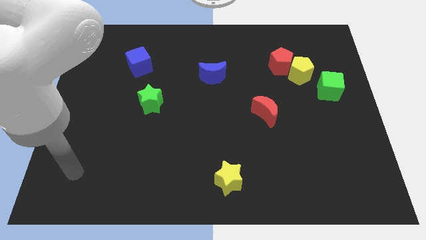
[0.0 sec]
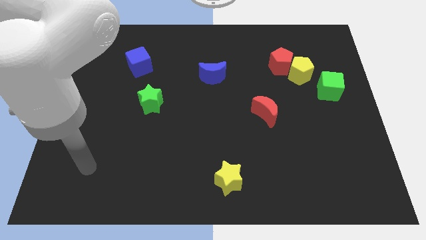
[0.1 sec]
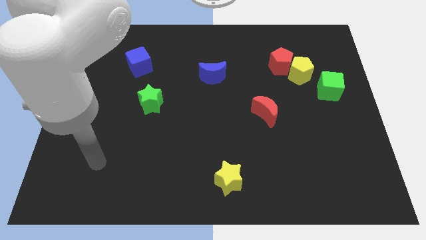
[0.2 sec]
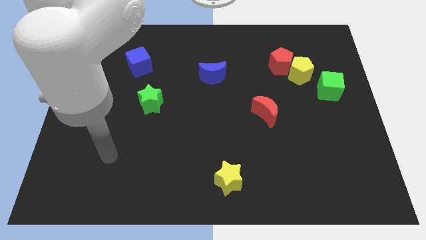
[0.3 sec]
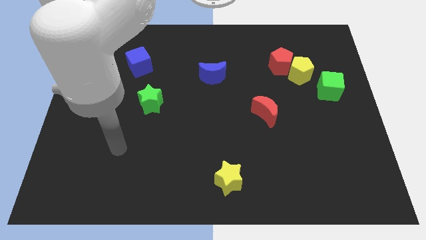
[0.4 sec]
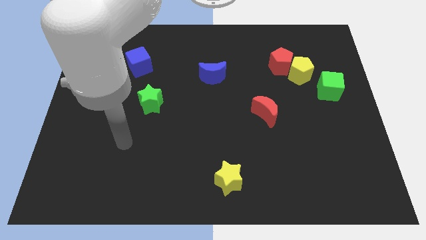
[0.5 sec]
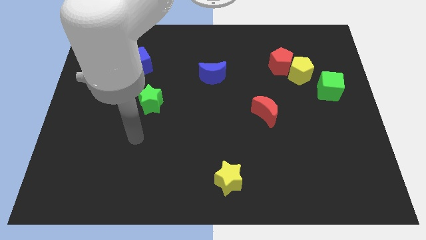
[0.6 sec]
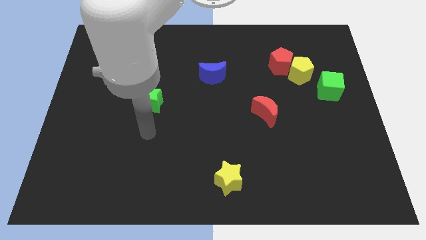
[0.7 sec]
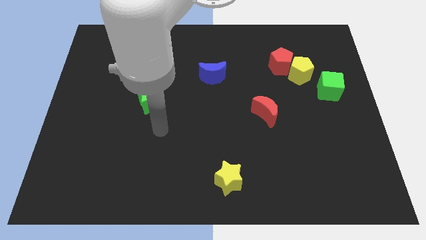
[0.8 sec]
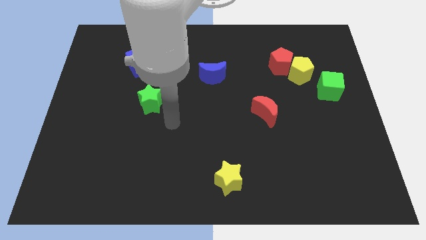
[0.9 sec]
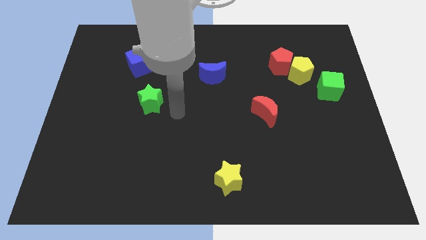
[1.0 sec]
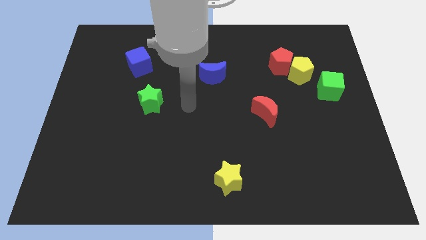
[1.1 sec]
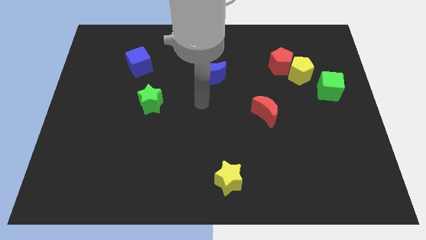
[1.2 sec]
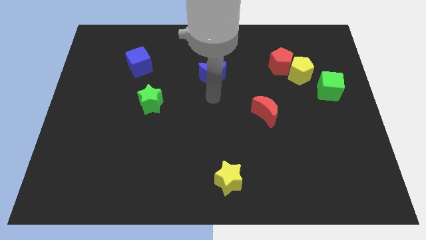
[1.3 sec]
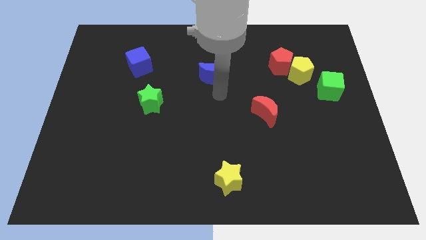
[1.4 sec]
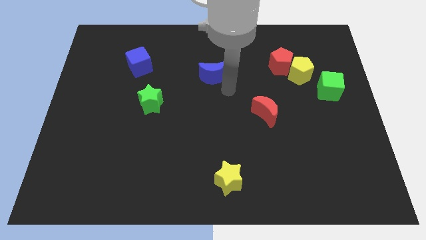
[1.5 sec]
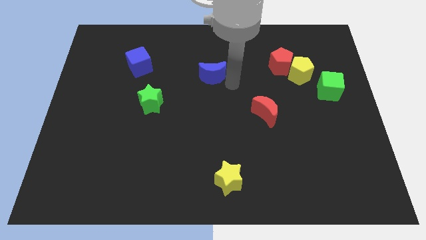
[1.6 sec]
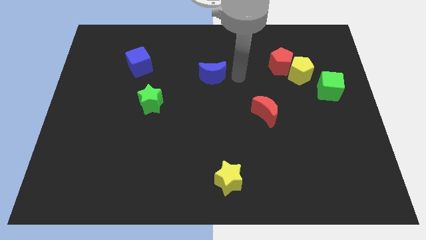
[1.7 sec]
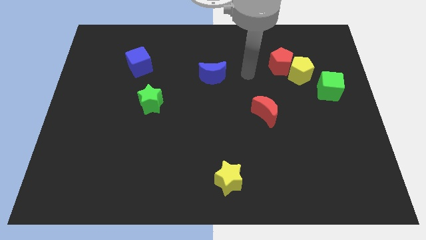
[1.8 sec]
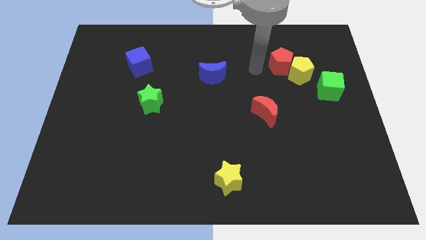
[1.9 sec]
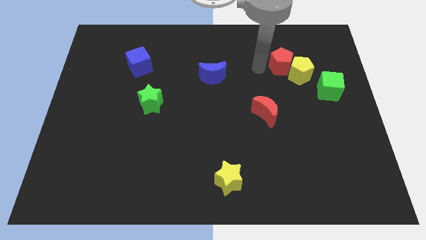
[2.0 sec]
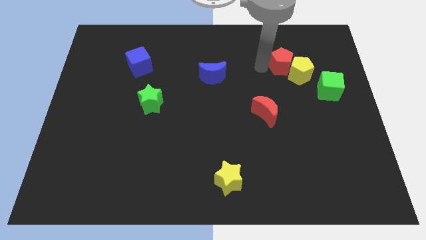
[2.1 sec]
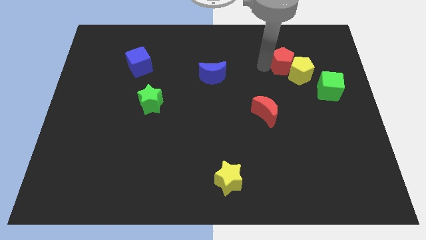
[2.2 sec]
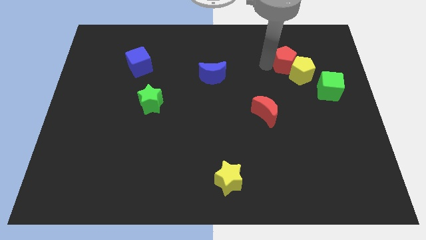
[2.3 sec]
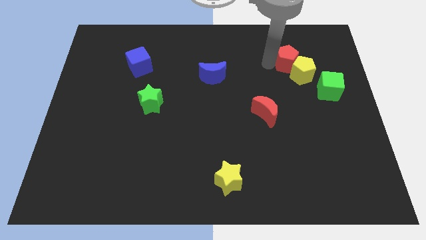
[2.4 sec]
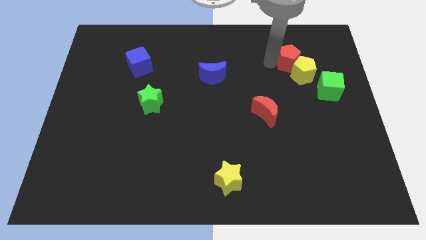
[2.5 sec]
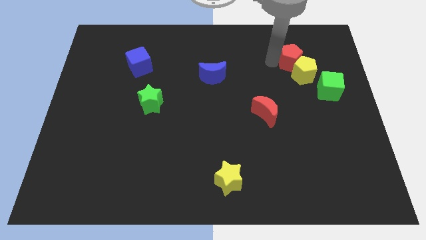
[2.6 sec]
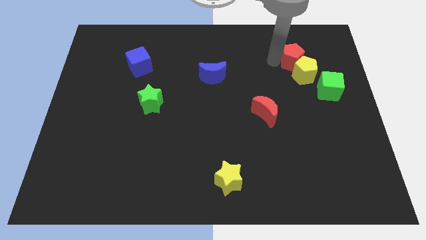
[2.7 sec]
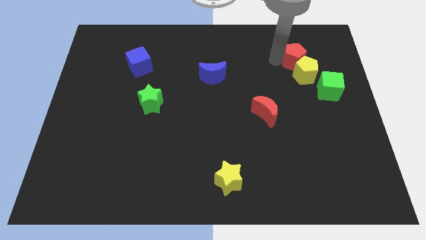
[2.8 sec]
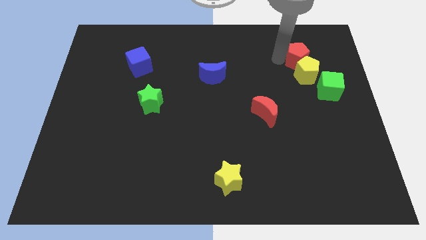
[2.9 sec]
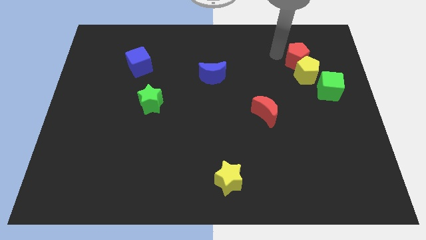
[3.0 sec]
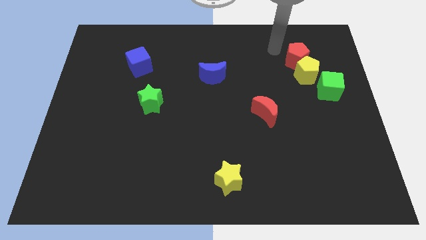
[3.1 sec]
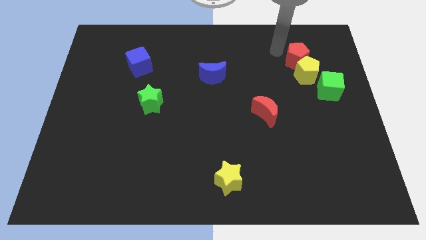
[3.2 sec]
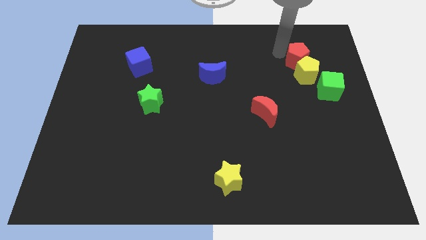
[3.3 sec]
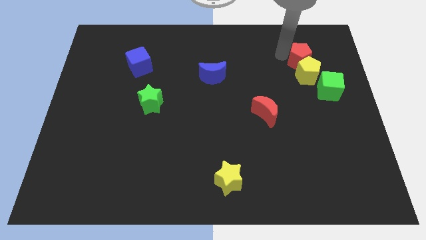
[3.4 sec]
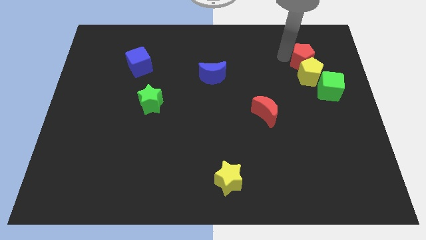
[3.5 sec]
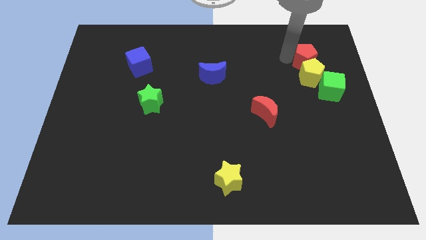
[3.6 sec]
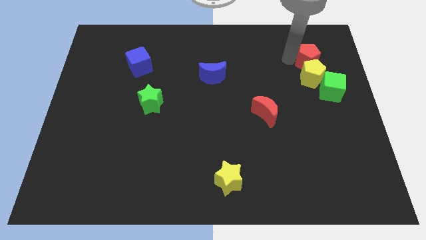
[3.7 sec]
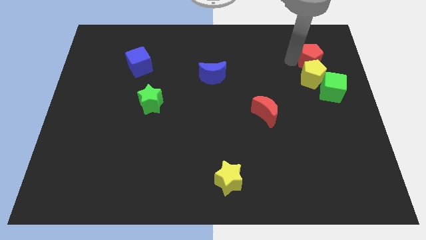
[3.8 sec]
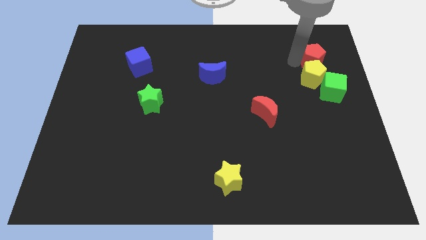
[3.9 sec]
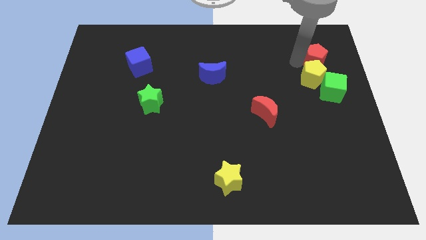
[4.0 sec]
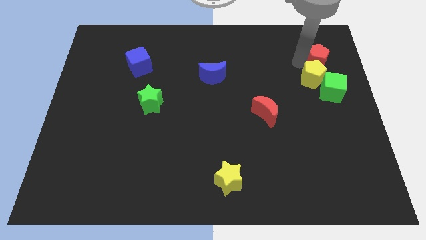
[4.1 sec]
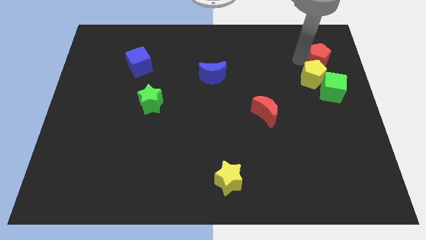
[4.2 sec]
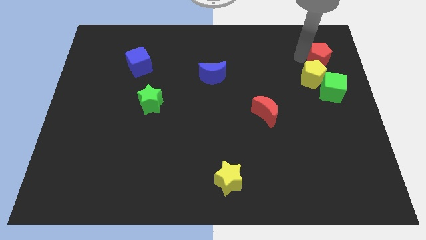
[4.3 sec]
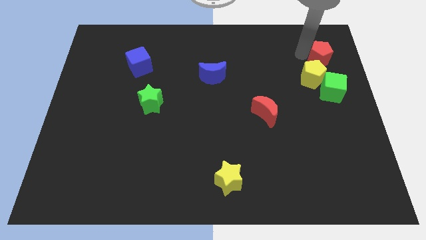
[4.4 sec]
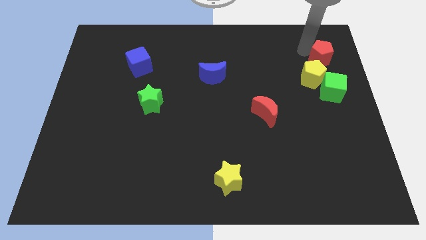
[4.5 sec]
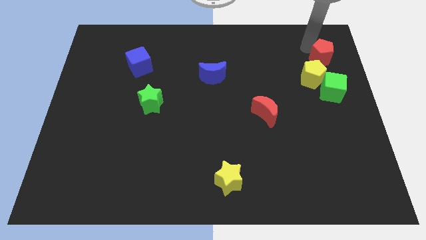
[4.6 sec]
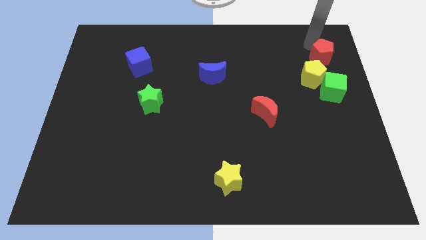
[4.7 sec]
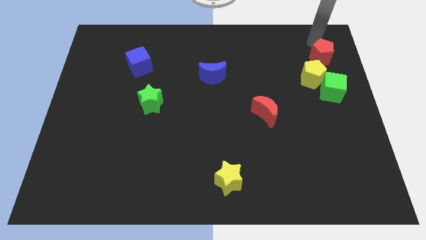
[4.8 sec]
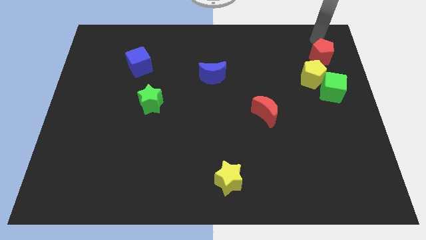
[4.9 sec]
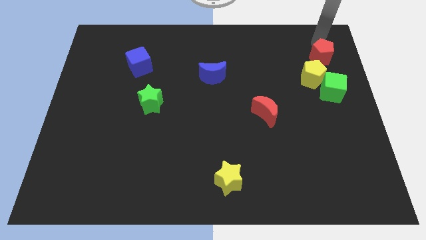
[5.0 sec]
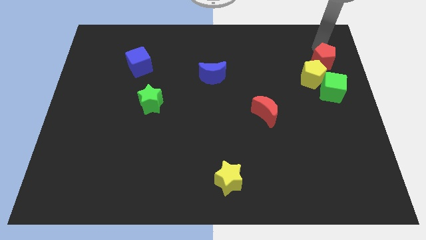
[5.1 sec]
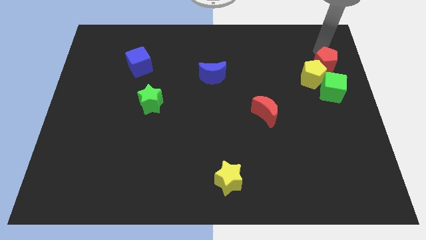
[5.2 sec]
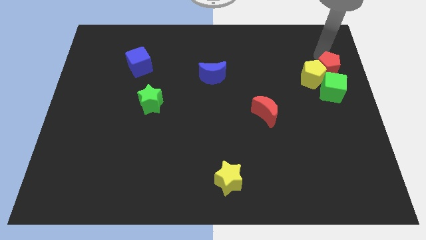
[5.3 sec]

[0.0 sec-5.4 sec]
move the red pentagon to the center right
